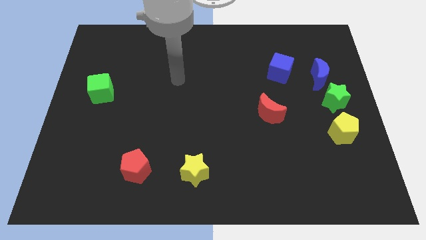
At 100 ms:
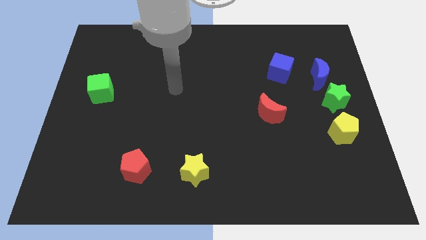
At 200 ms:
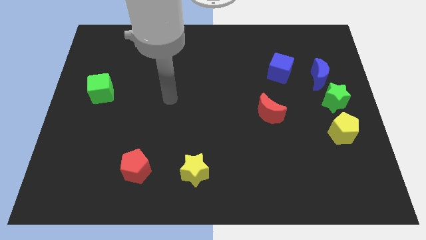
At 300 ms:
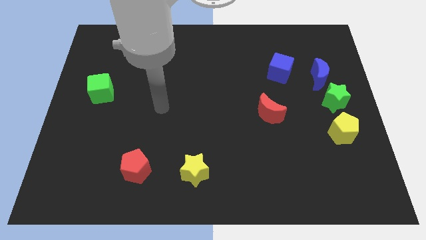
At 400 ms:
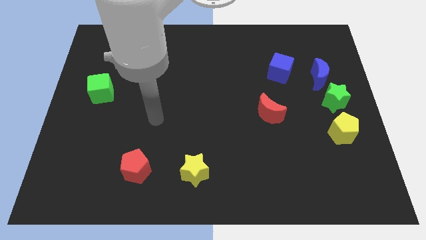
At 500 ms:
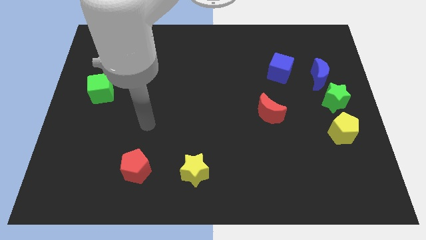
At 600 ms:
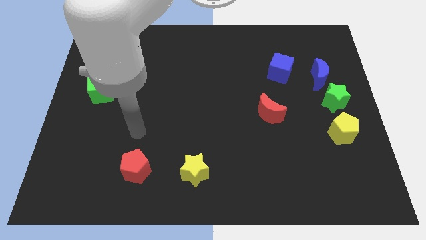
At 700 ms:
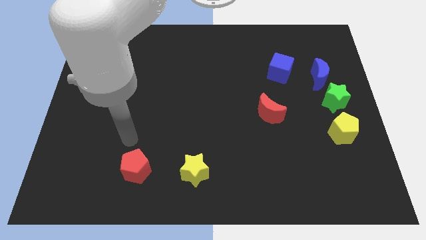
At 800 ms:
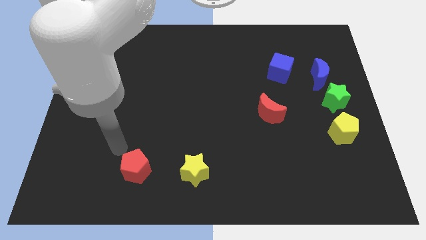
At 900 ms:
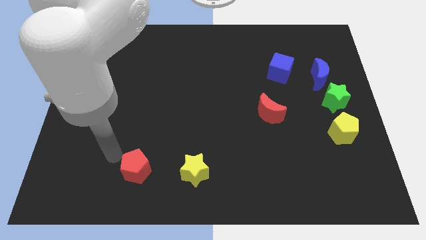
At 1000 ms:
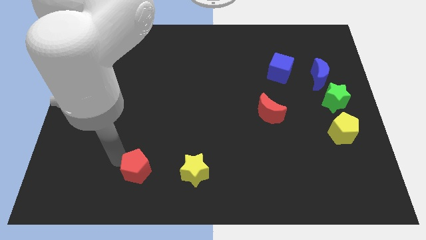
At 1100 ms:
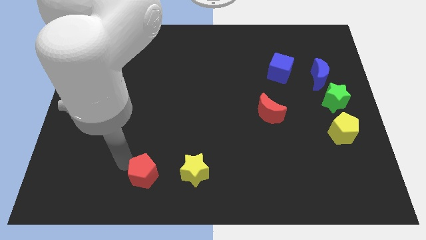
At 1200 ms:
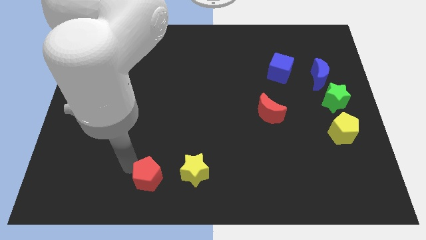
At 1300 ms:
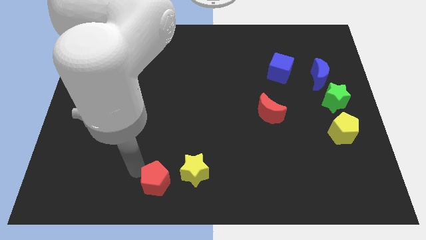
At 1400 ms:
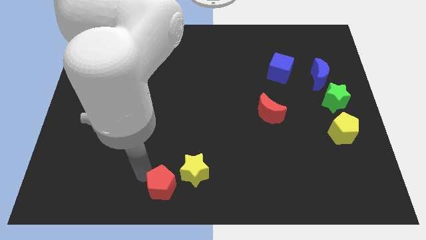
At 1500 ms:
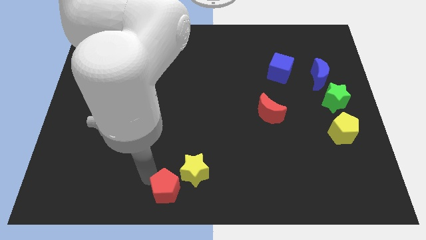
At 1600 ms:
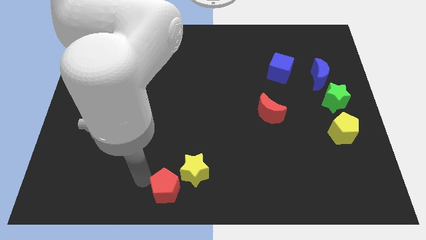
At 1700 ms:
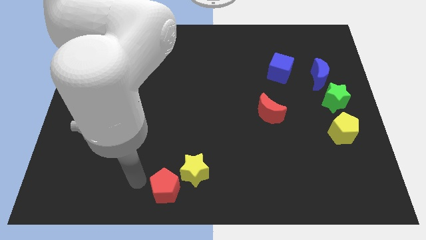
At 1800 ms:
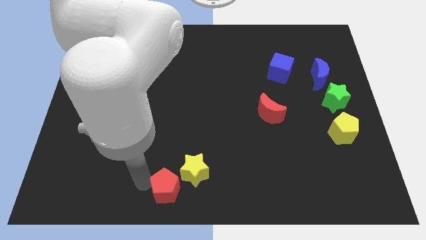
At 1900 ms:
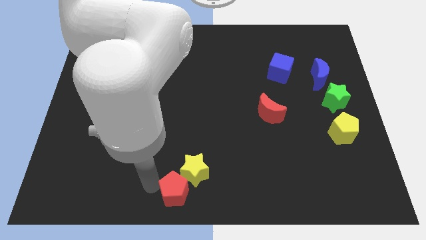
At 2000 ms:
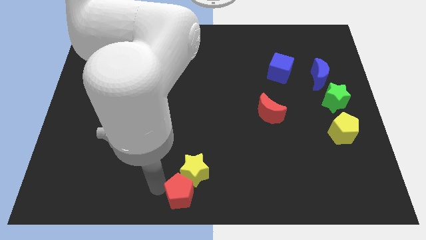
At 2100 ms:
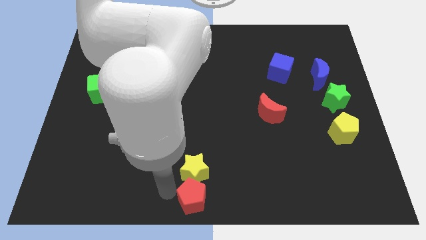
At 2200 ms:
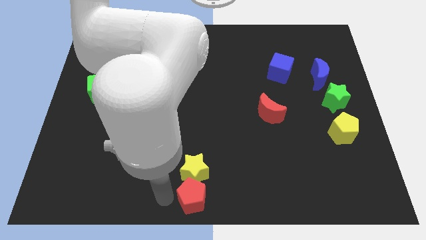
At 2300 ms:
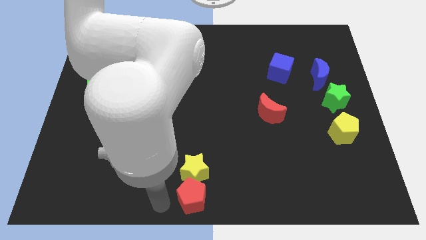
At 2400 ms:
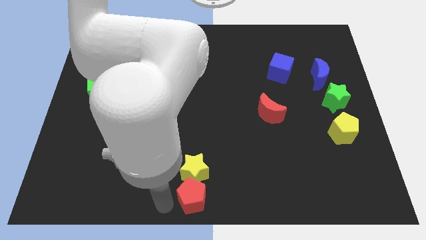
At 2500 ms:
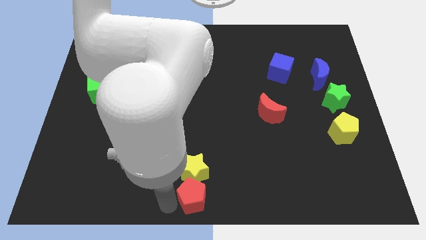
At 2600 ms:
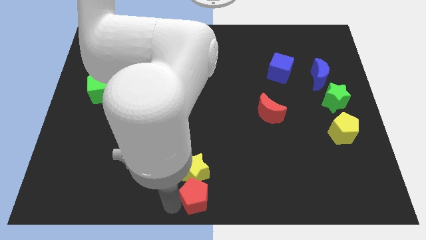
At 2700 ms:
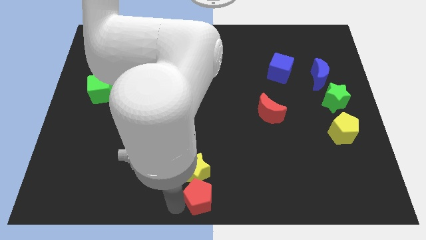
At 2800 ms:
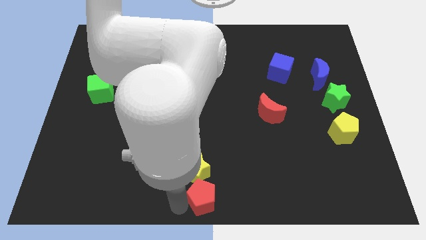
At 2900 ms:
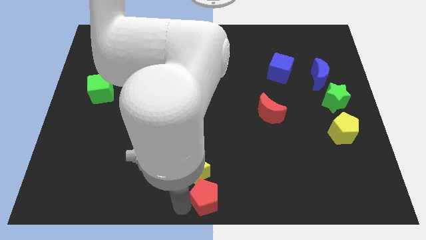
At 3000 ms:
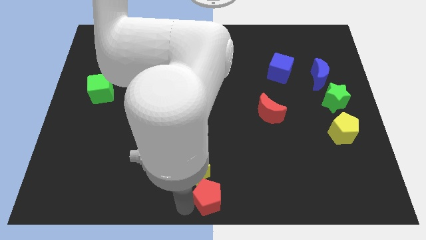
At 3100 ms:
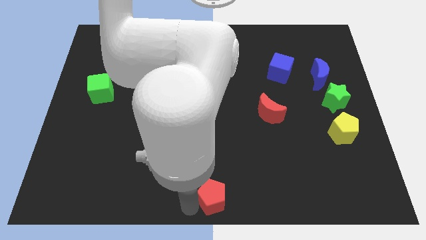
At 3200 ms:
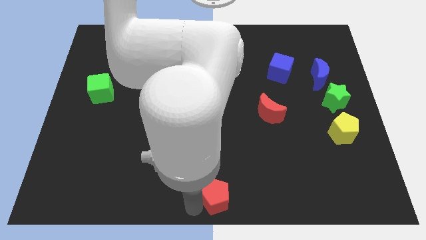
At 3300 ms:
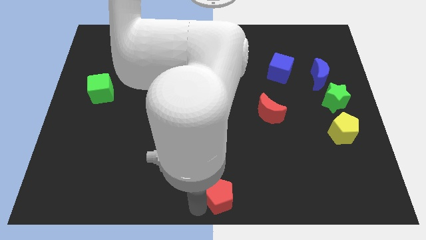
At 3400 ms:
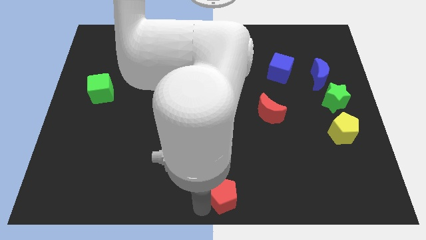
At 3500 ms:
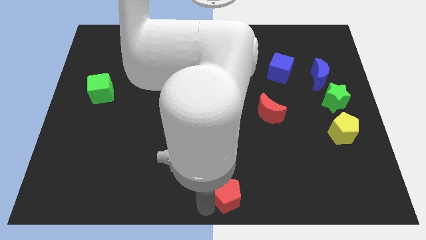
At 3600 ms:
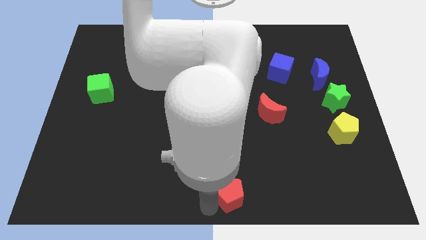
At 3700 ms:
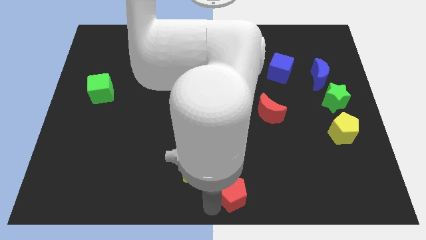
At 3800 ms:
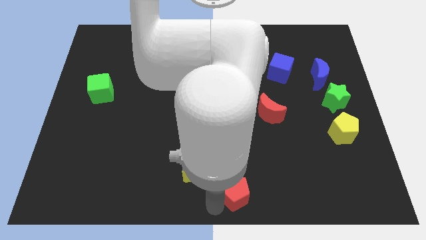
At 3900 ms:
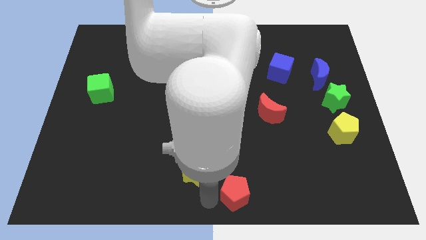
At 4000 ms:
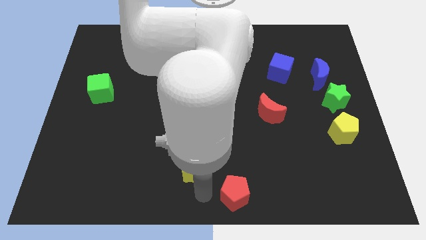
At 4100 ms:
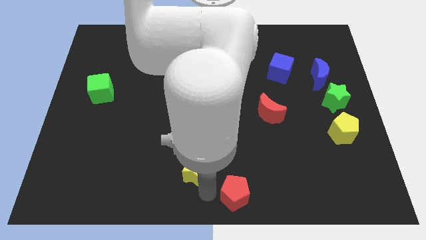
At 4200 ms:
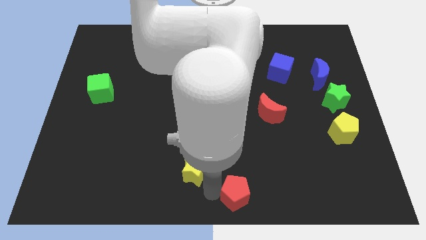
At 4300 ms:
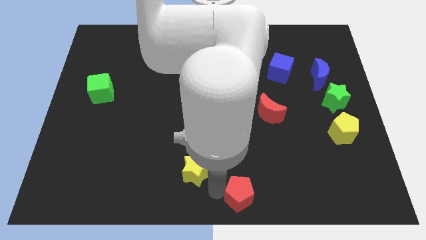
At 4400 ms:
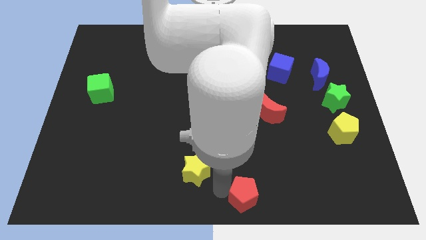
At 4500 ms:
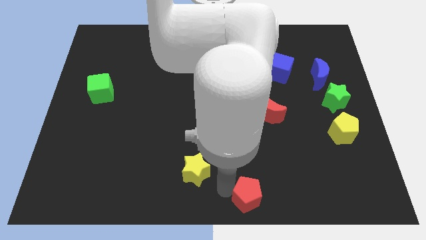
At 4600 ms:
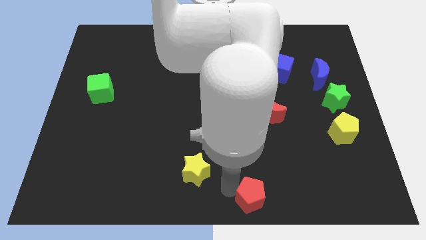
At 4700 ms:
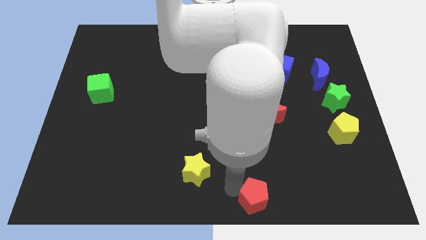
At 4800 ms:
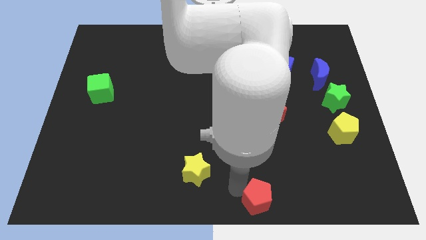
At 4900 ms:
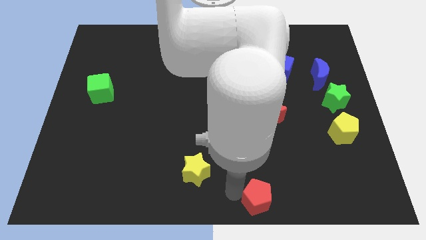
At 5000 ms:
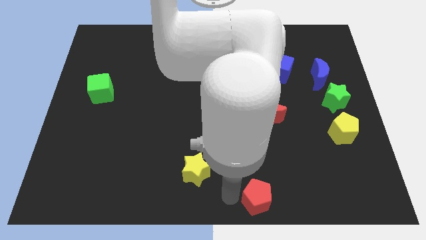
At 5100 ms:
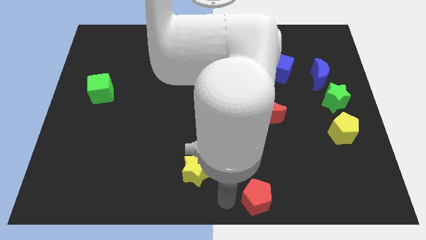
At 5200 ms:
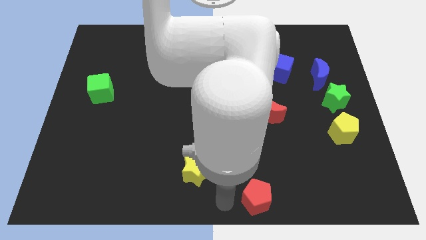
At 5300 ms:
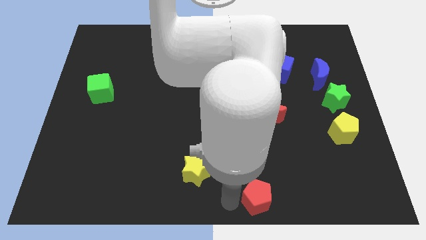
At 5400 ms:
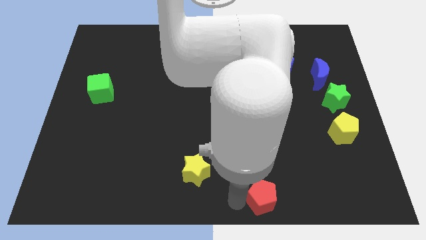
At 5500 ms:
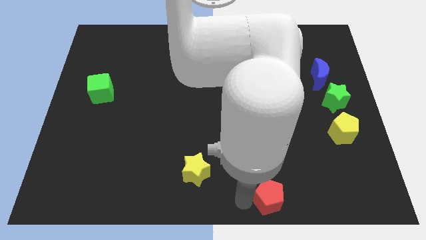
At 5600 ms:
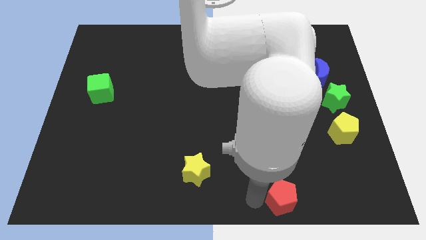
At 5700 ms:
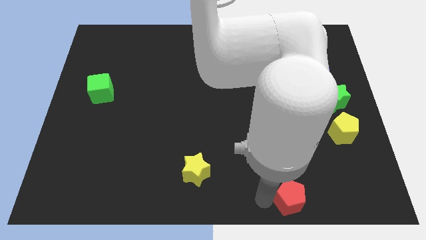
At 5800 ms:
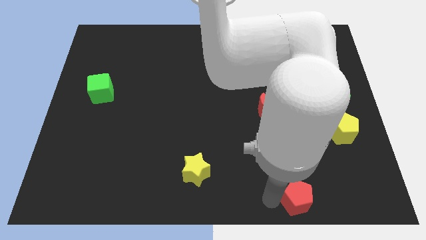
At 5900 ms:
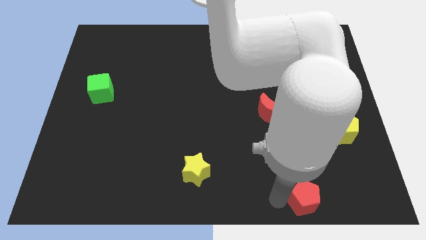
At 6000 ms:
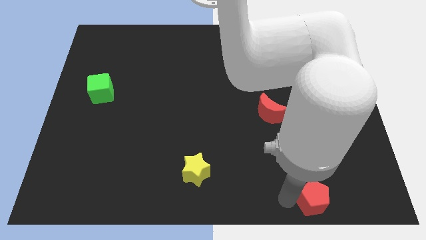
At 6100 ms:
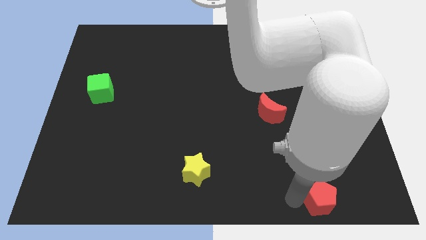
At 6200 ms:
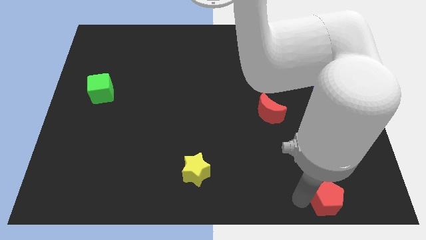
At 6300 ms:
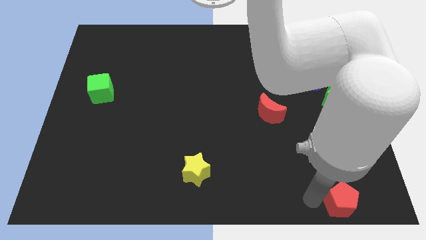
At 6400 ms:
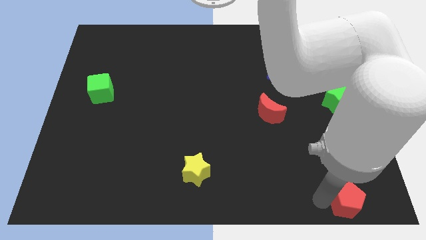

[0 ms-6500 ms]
put the red pentagon to the lower right corner
